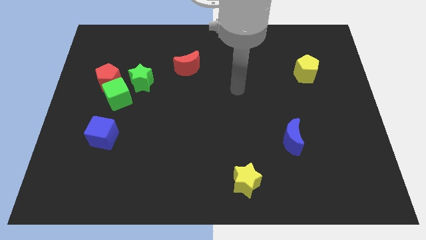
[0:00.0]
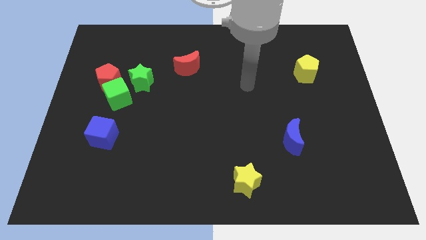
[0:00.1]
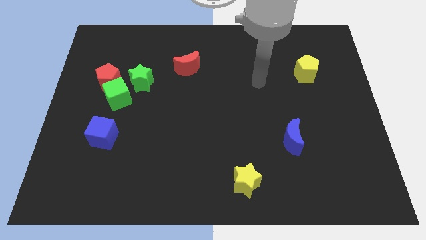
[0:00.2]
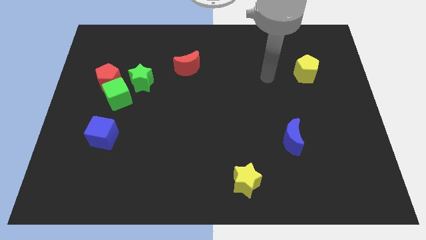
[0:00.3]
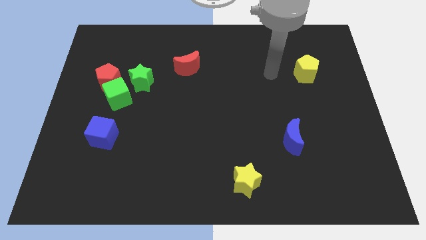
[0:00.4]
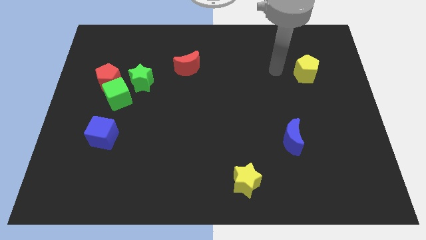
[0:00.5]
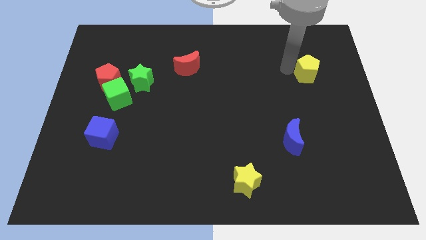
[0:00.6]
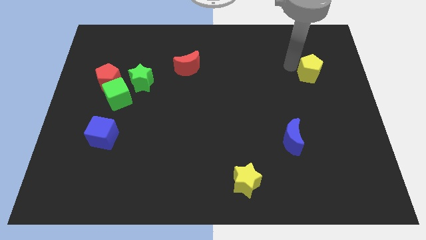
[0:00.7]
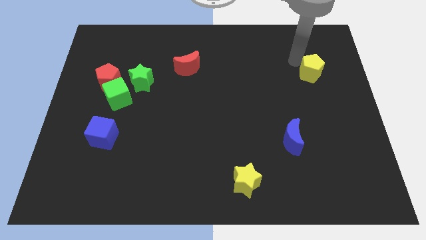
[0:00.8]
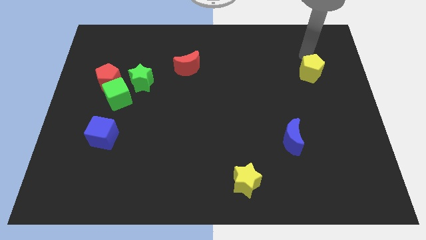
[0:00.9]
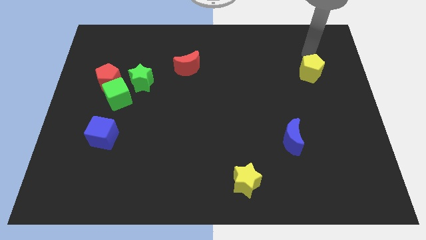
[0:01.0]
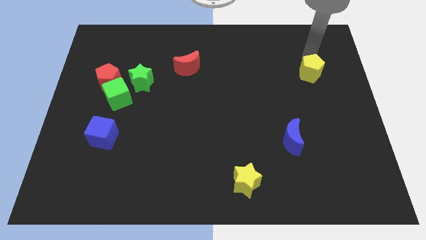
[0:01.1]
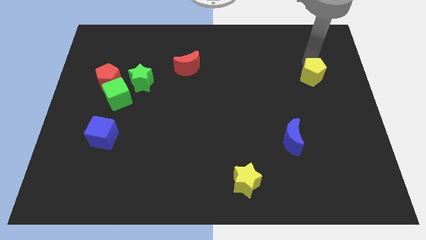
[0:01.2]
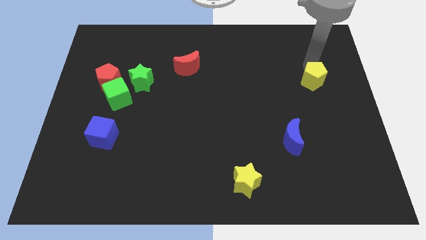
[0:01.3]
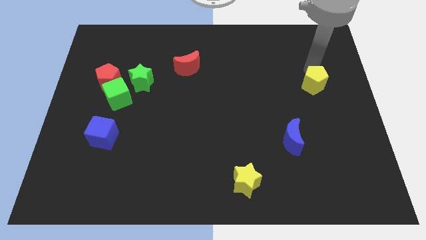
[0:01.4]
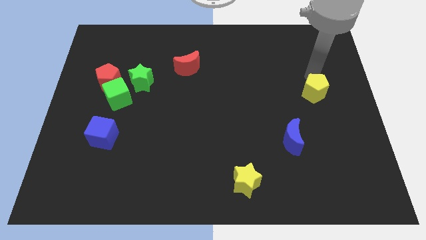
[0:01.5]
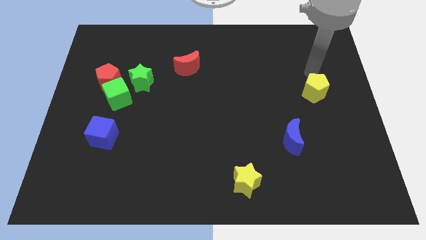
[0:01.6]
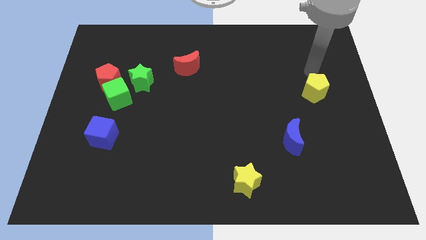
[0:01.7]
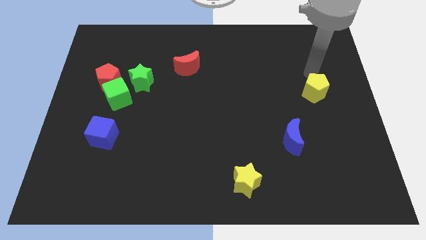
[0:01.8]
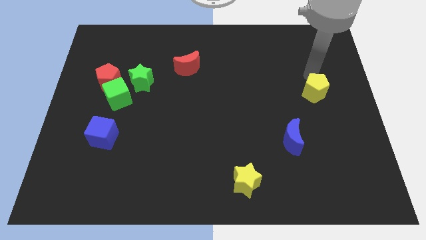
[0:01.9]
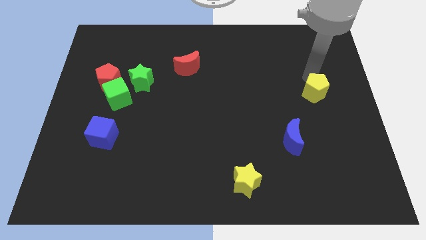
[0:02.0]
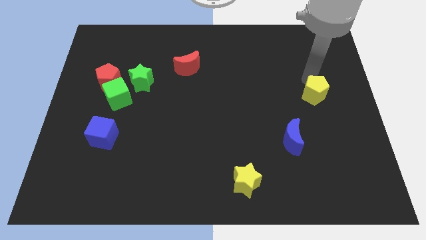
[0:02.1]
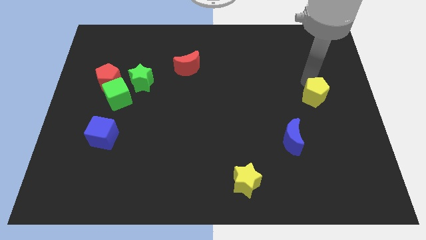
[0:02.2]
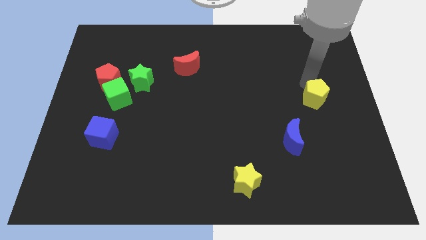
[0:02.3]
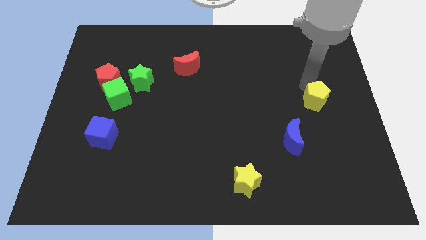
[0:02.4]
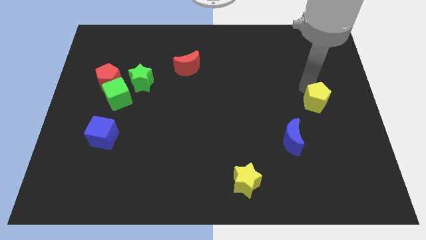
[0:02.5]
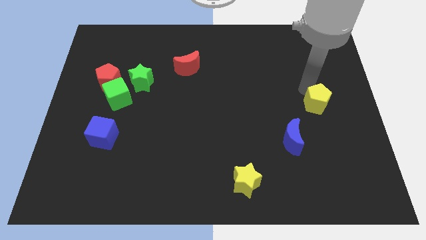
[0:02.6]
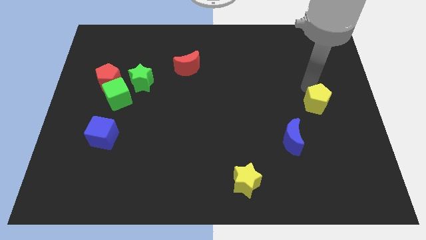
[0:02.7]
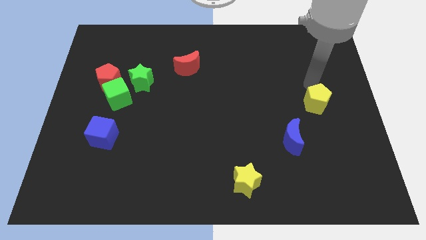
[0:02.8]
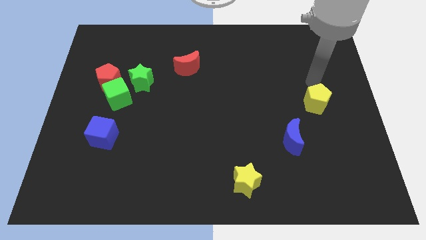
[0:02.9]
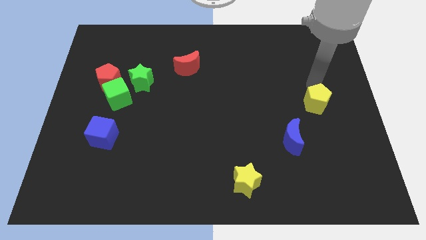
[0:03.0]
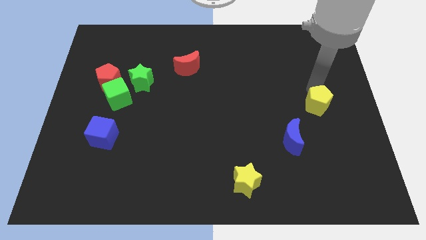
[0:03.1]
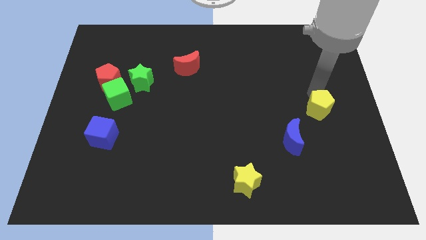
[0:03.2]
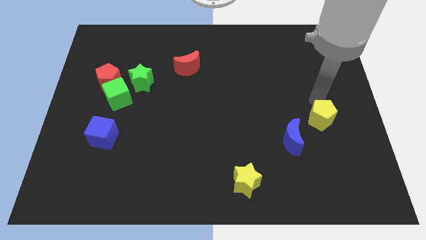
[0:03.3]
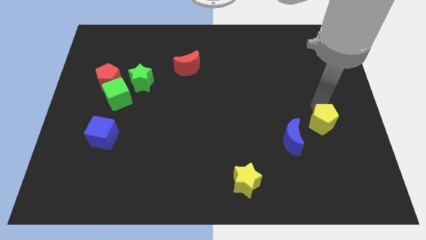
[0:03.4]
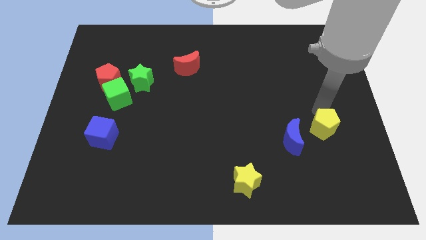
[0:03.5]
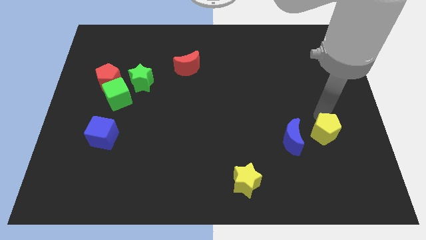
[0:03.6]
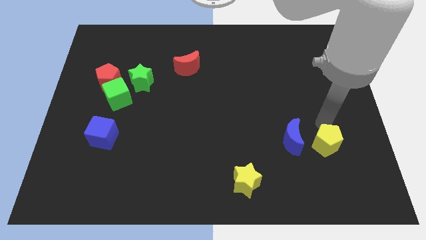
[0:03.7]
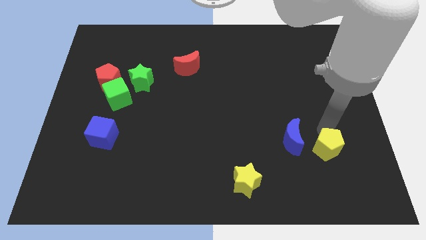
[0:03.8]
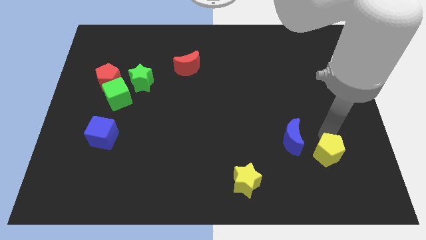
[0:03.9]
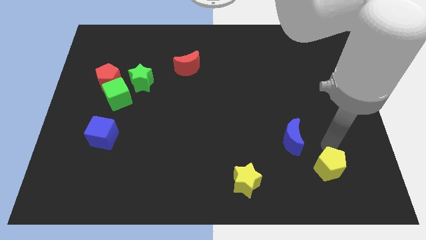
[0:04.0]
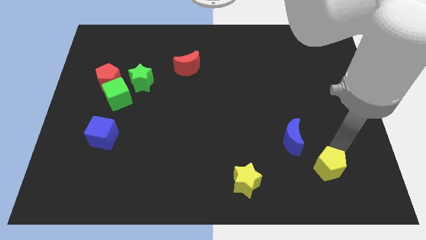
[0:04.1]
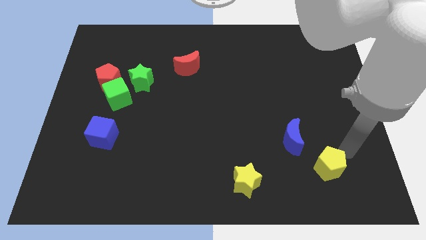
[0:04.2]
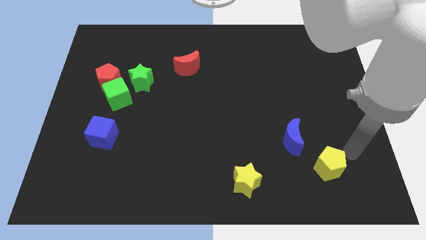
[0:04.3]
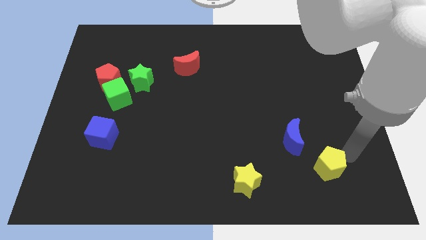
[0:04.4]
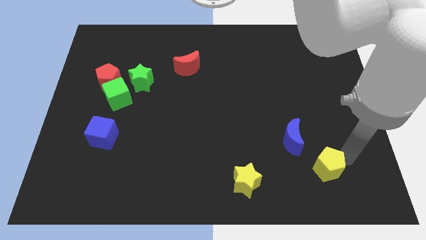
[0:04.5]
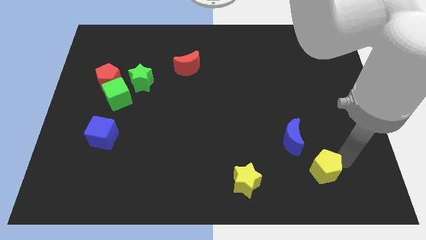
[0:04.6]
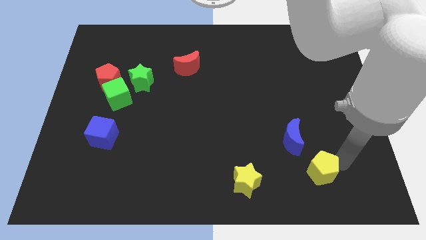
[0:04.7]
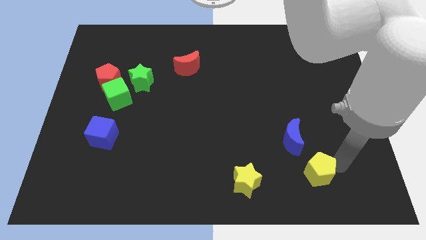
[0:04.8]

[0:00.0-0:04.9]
move the yellow pentagon just right of the yellow star

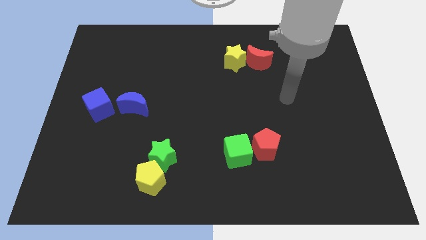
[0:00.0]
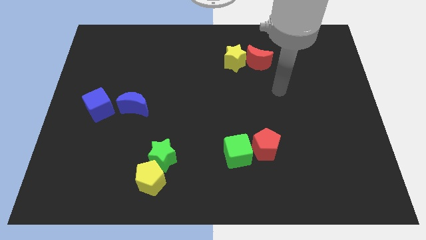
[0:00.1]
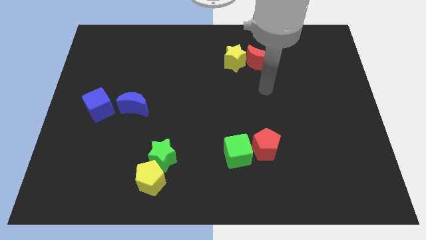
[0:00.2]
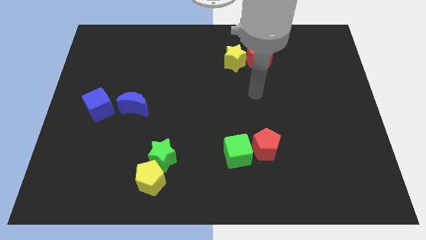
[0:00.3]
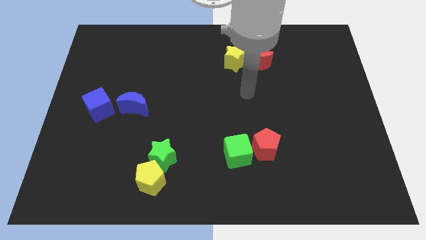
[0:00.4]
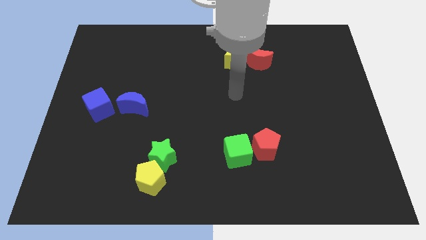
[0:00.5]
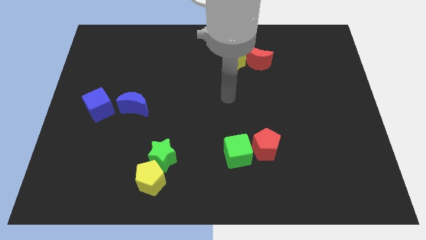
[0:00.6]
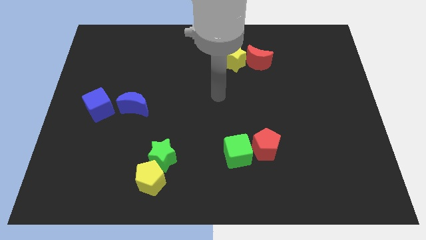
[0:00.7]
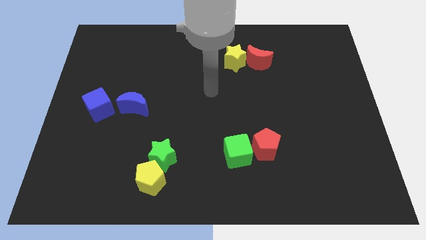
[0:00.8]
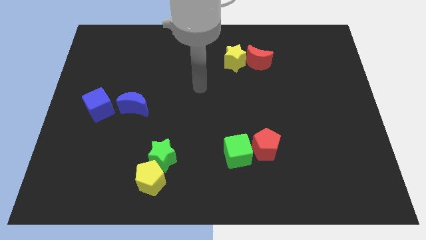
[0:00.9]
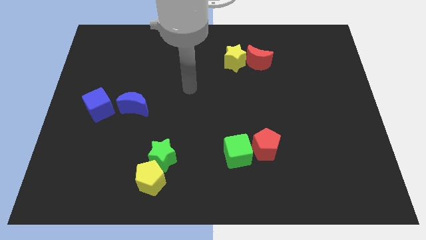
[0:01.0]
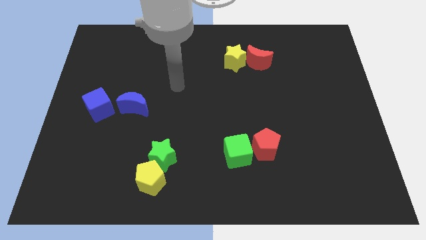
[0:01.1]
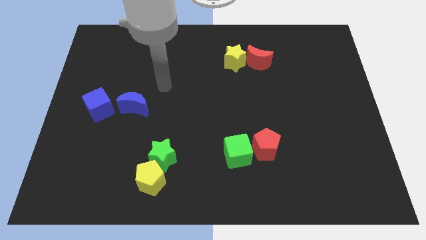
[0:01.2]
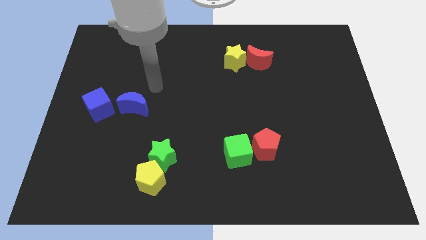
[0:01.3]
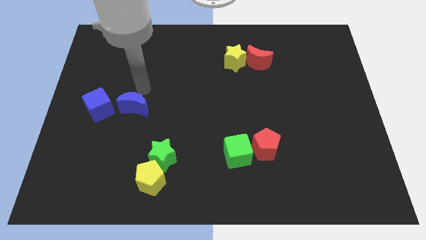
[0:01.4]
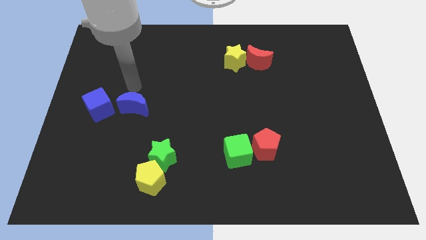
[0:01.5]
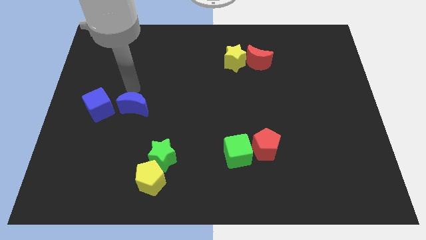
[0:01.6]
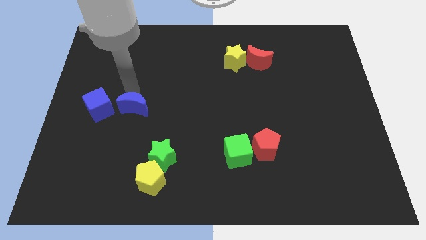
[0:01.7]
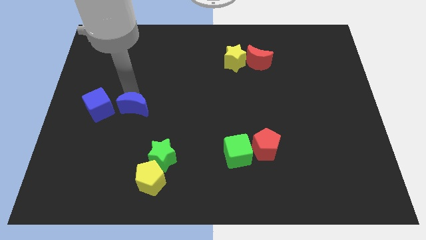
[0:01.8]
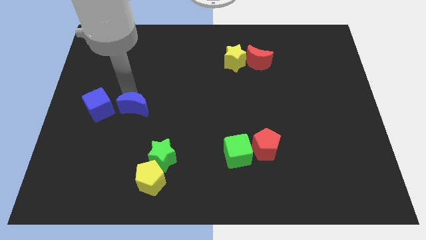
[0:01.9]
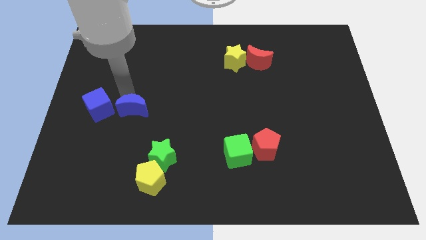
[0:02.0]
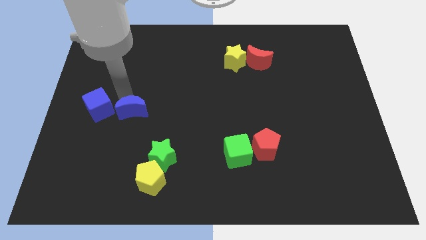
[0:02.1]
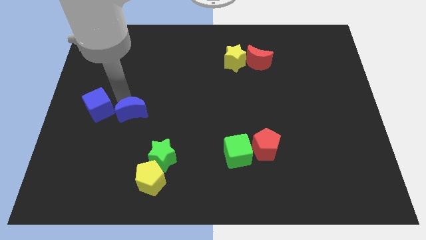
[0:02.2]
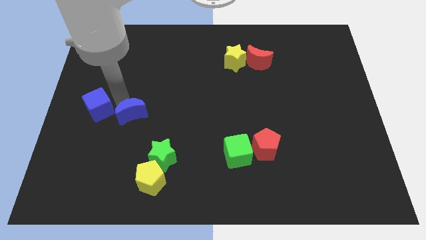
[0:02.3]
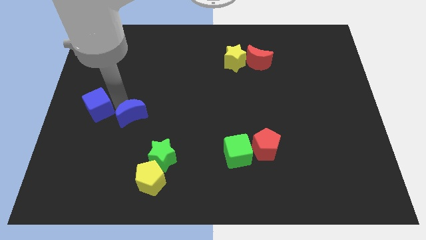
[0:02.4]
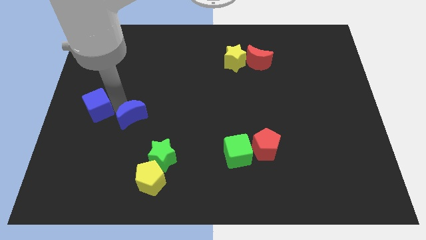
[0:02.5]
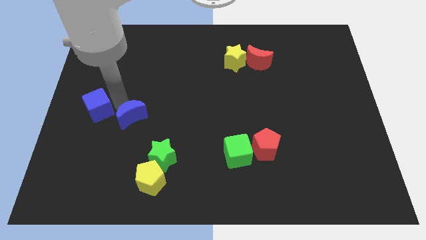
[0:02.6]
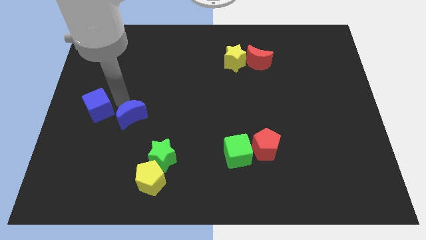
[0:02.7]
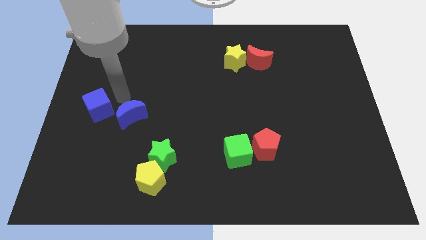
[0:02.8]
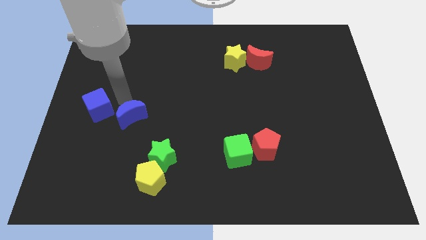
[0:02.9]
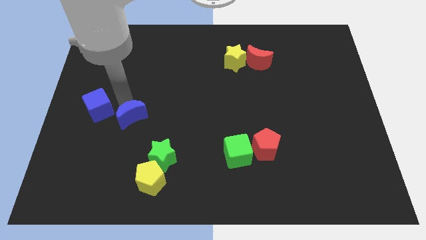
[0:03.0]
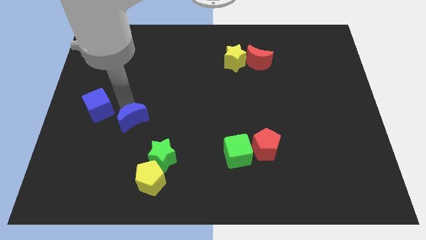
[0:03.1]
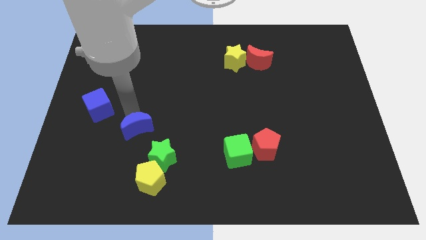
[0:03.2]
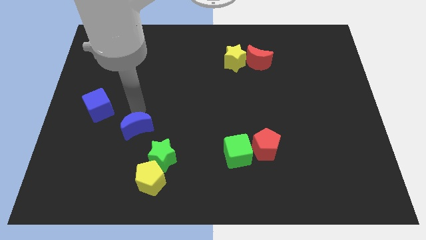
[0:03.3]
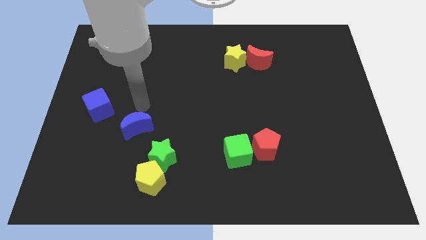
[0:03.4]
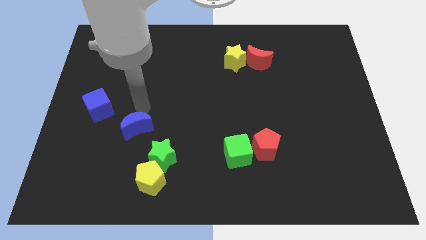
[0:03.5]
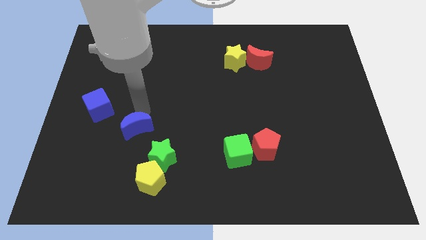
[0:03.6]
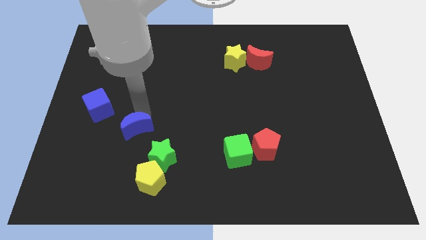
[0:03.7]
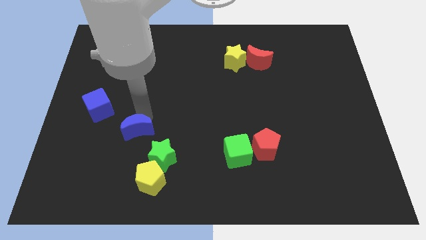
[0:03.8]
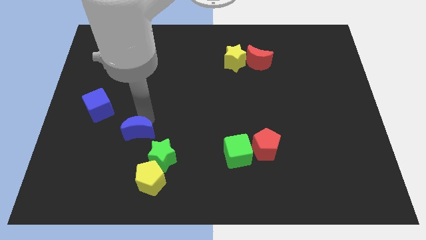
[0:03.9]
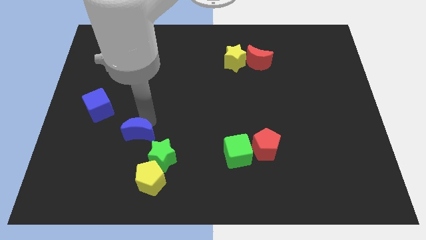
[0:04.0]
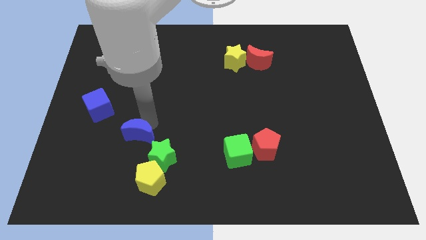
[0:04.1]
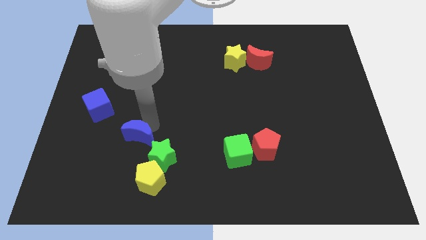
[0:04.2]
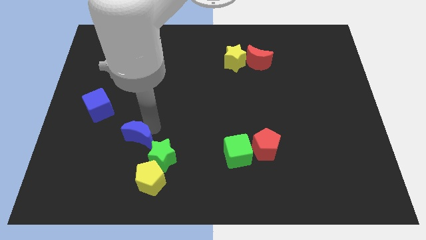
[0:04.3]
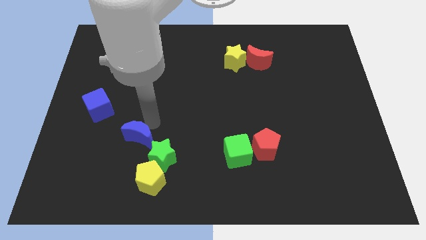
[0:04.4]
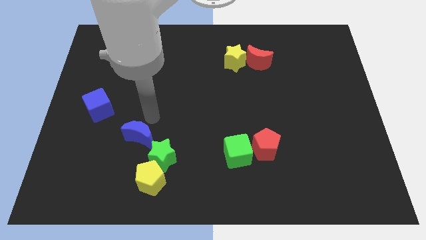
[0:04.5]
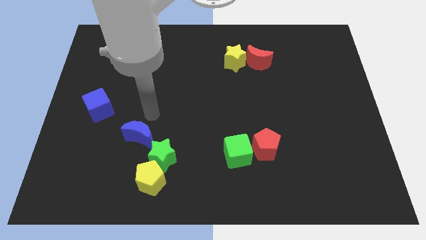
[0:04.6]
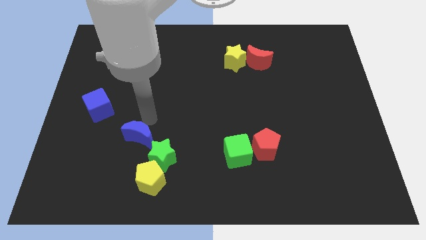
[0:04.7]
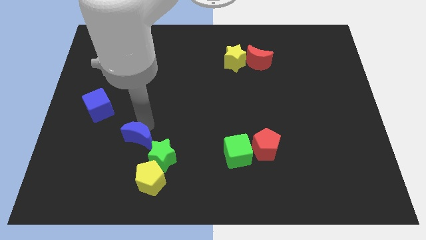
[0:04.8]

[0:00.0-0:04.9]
put the blue moon to the top left side of the yellow pentagon
